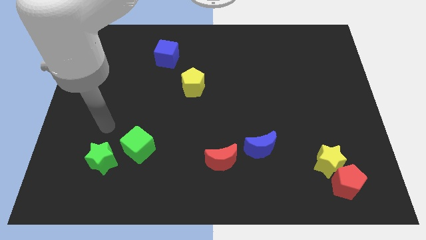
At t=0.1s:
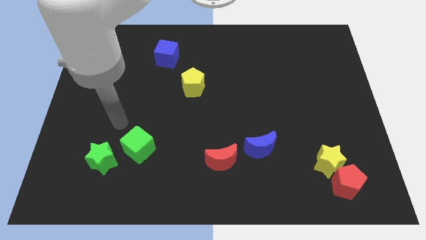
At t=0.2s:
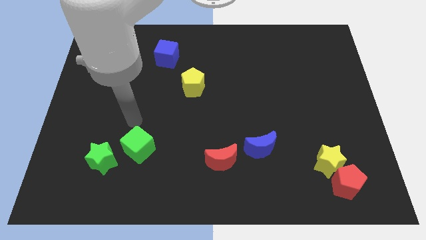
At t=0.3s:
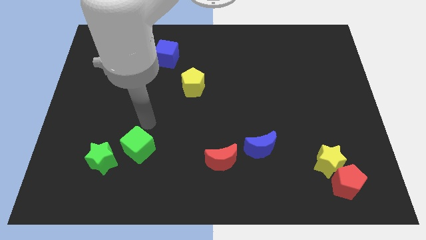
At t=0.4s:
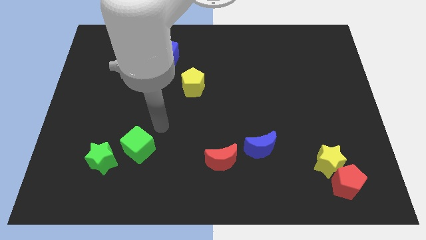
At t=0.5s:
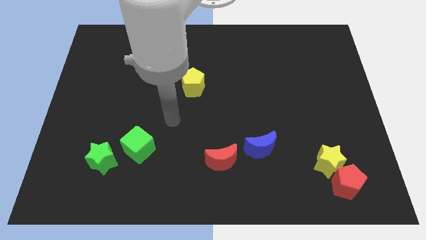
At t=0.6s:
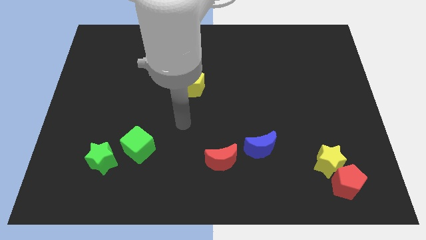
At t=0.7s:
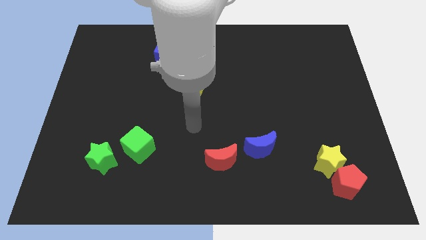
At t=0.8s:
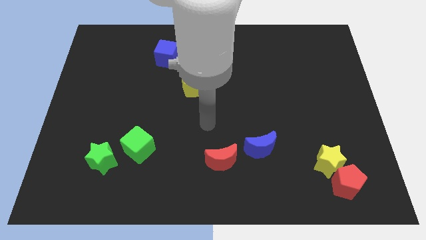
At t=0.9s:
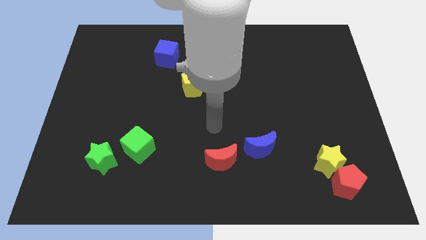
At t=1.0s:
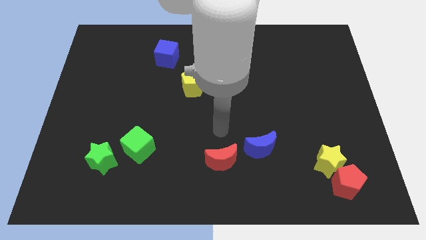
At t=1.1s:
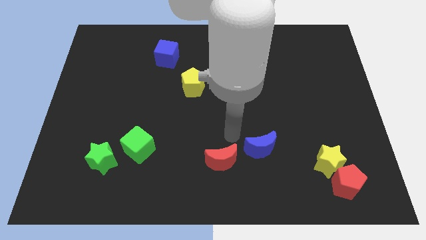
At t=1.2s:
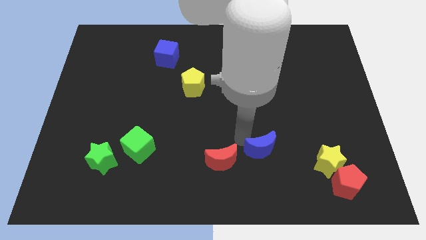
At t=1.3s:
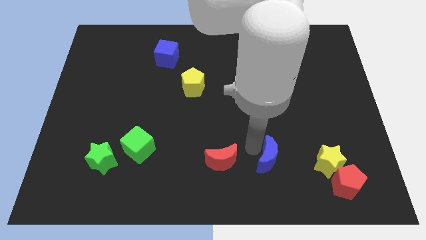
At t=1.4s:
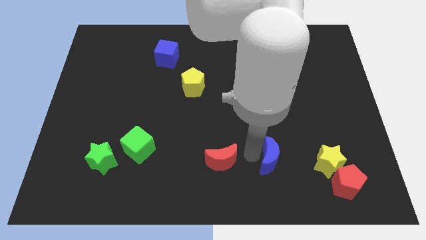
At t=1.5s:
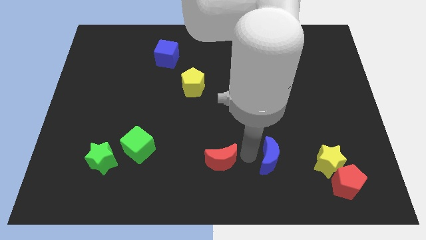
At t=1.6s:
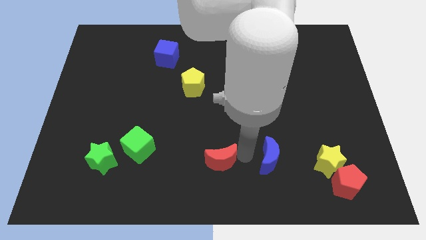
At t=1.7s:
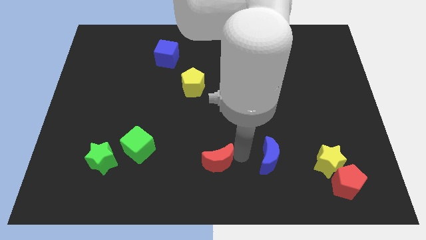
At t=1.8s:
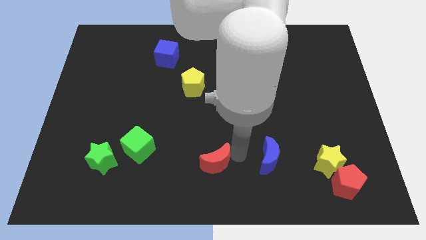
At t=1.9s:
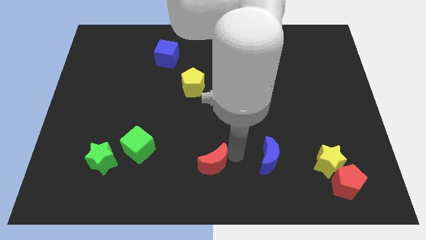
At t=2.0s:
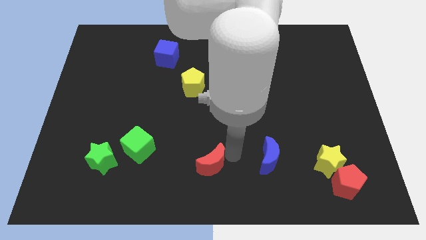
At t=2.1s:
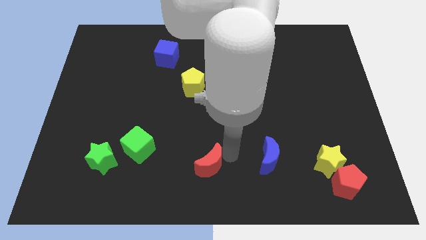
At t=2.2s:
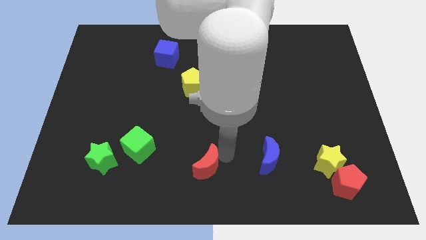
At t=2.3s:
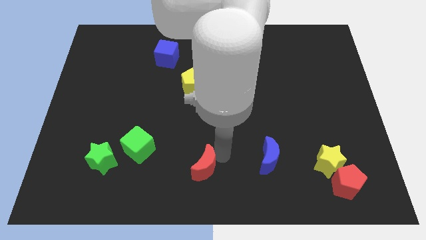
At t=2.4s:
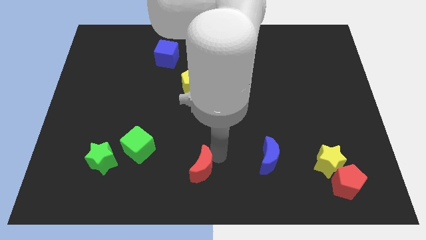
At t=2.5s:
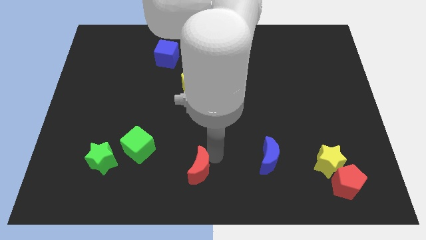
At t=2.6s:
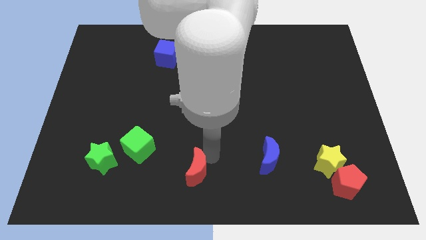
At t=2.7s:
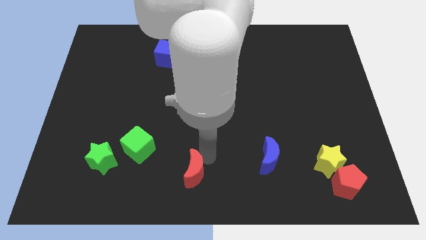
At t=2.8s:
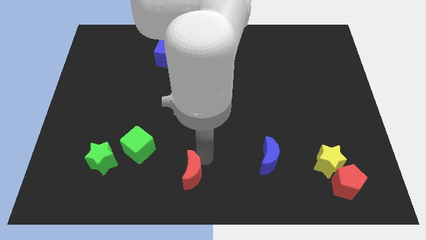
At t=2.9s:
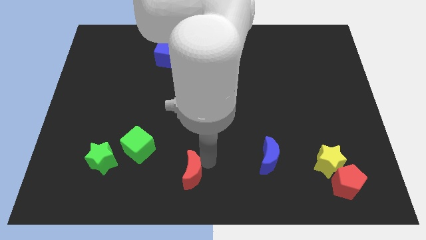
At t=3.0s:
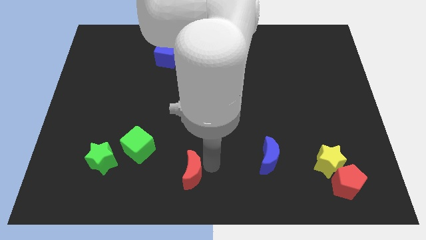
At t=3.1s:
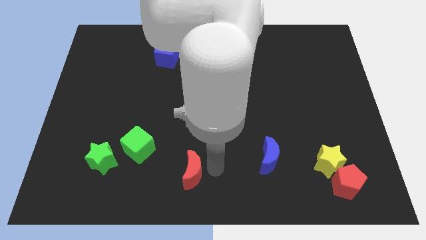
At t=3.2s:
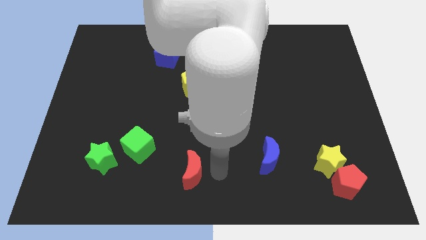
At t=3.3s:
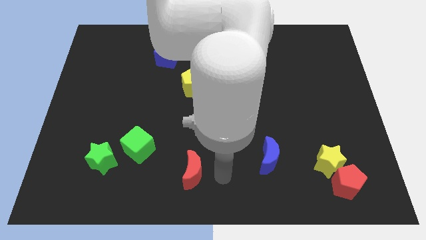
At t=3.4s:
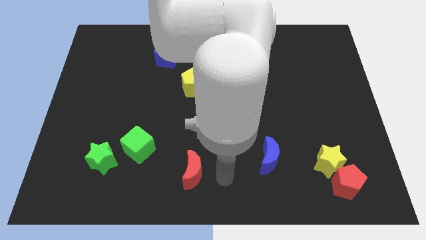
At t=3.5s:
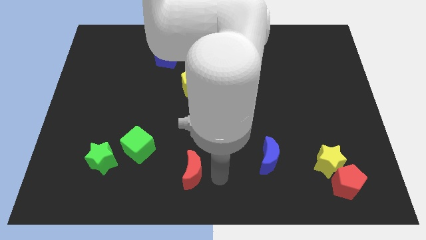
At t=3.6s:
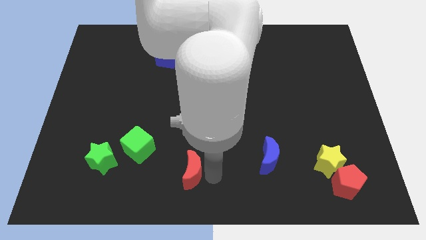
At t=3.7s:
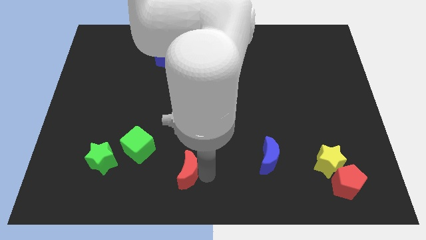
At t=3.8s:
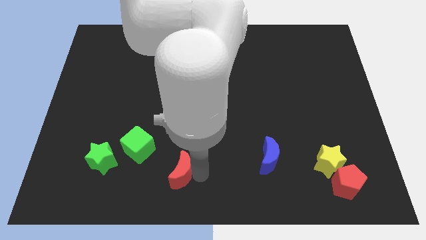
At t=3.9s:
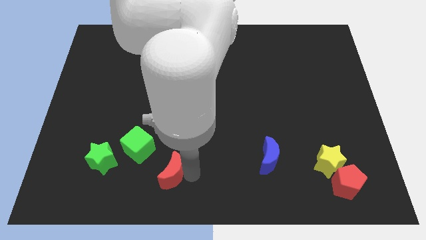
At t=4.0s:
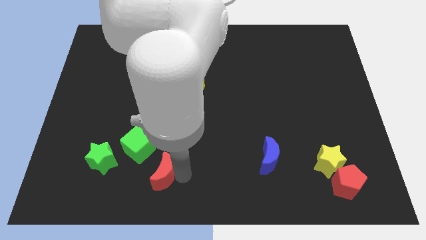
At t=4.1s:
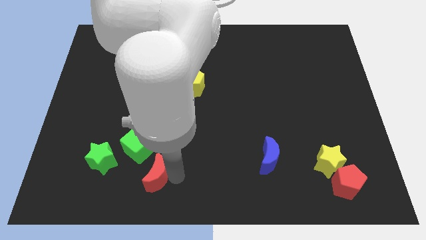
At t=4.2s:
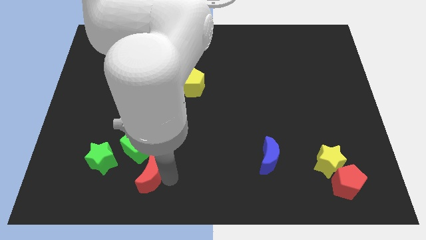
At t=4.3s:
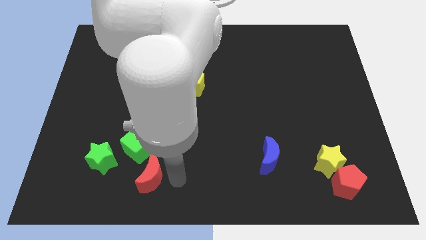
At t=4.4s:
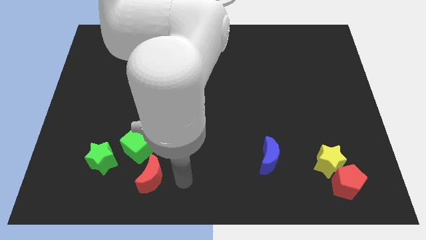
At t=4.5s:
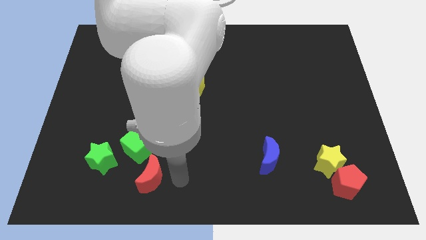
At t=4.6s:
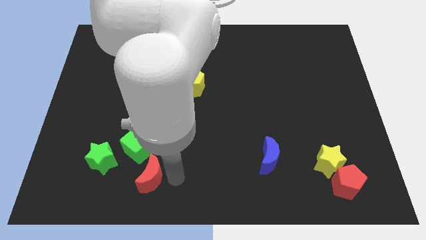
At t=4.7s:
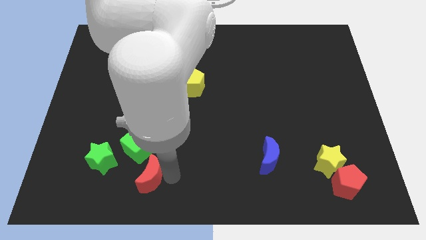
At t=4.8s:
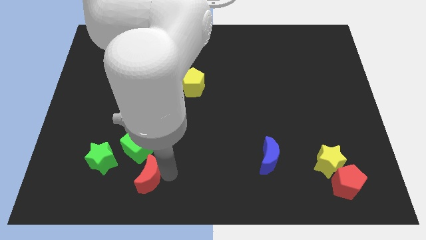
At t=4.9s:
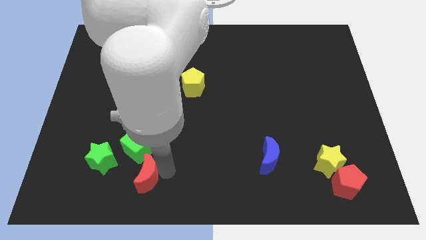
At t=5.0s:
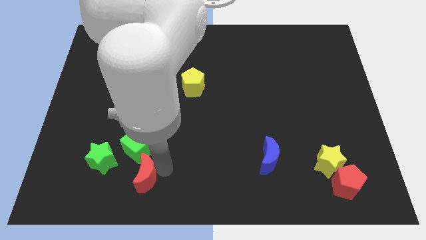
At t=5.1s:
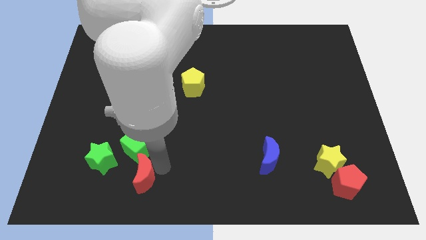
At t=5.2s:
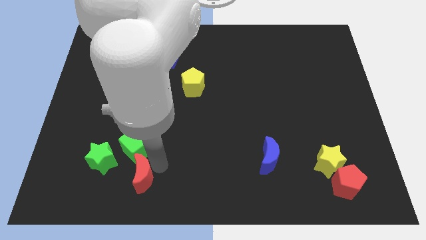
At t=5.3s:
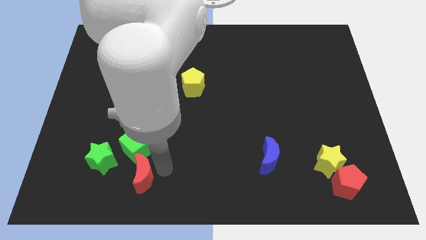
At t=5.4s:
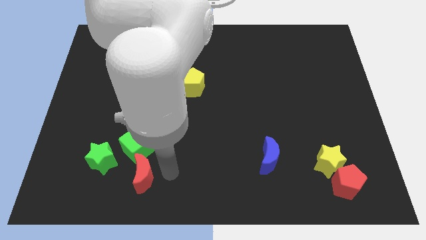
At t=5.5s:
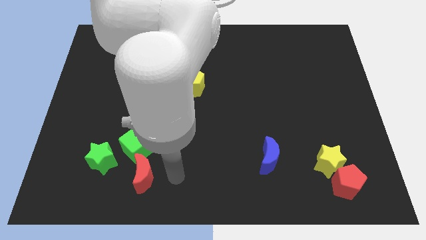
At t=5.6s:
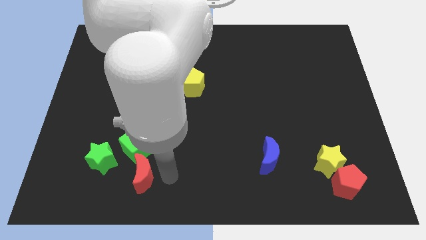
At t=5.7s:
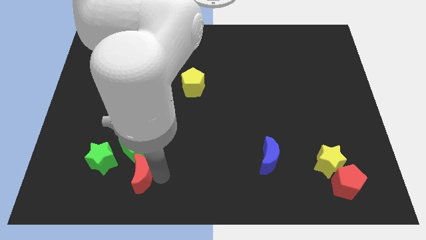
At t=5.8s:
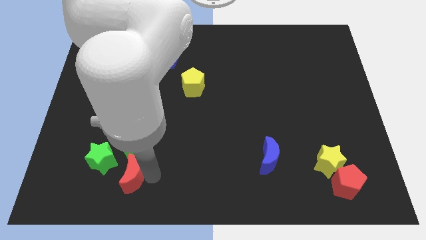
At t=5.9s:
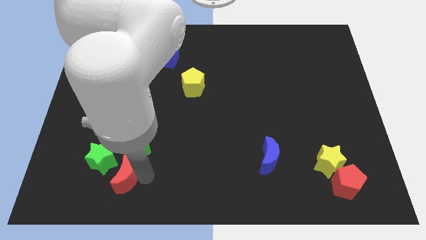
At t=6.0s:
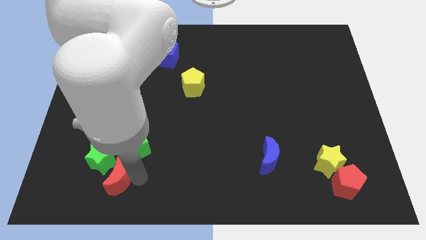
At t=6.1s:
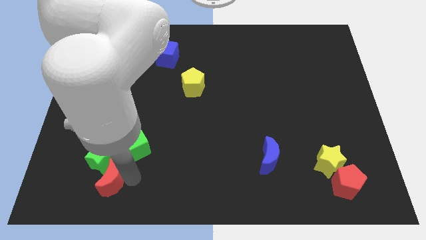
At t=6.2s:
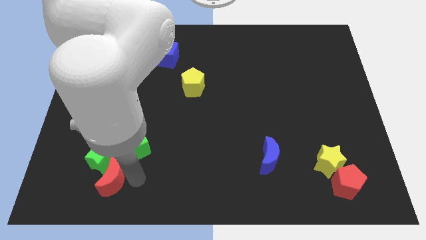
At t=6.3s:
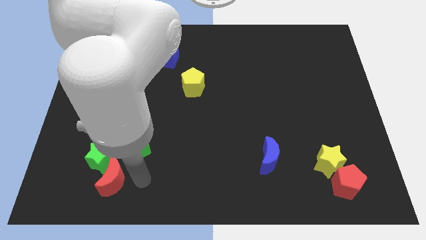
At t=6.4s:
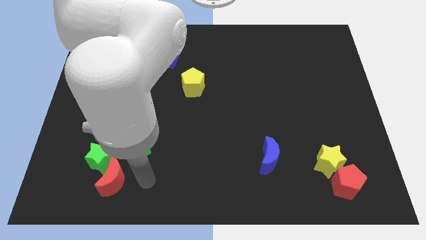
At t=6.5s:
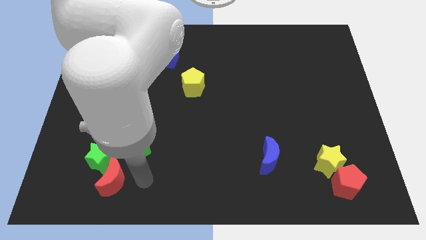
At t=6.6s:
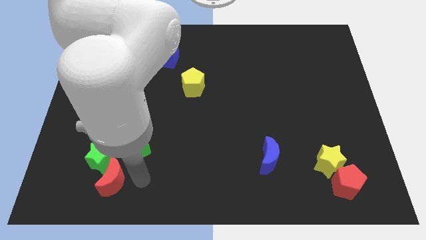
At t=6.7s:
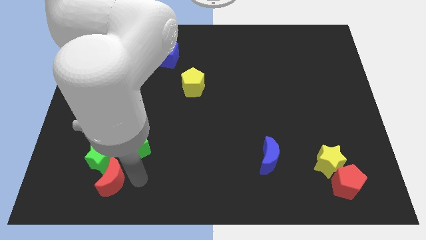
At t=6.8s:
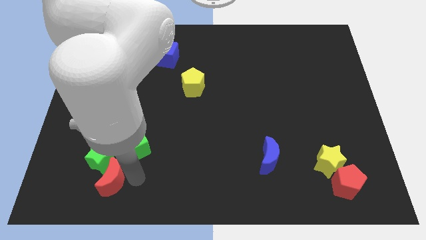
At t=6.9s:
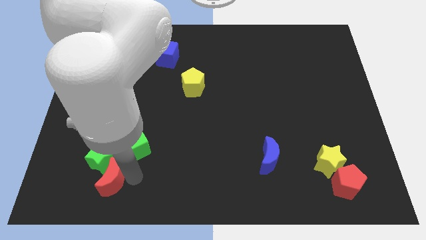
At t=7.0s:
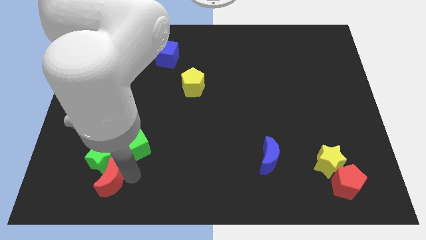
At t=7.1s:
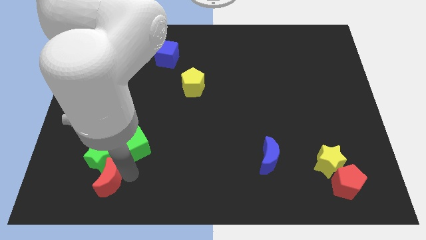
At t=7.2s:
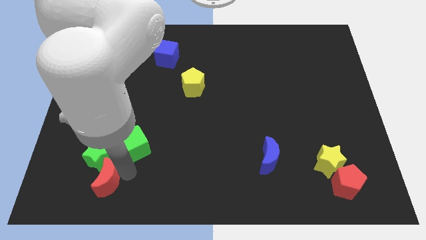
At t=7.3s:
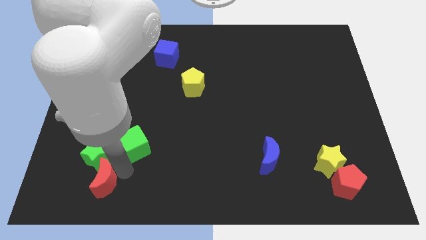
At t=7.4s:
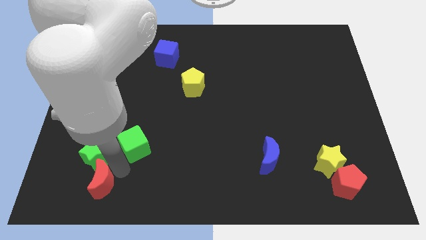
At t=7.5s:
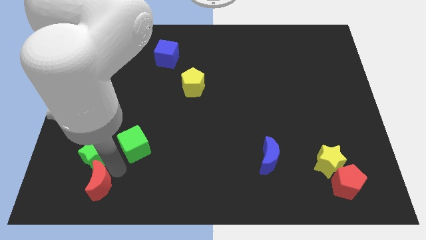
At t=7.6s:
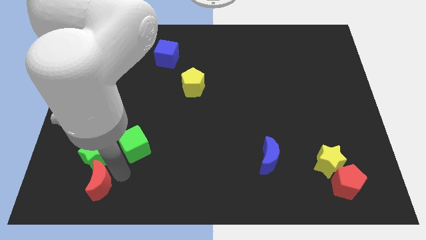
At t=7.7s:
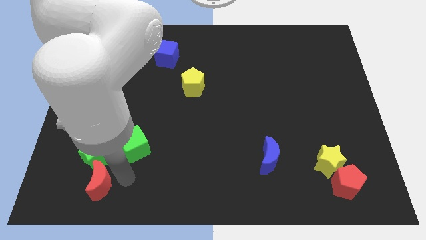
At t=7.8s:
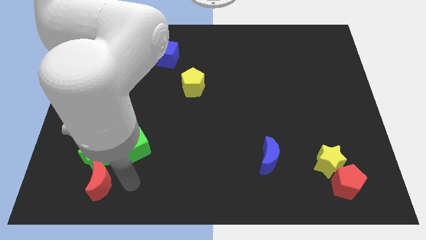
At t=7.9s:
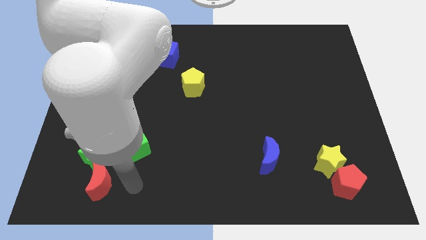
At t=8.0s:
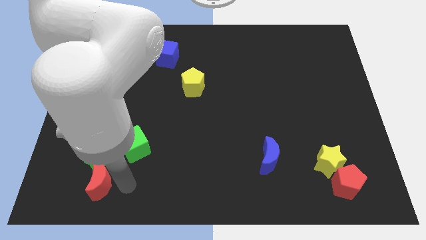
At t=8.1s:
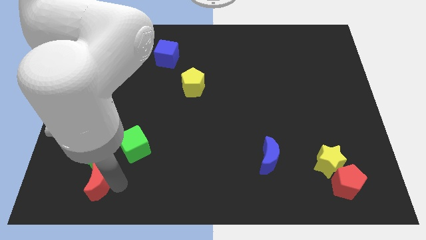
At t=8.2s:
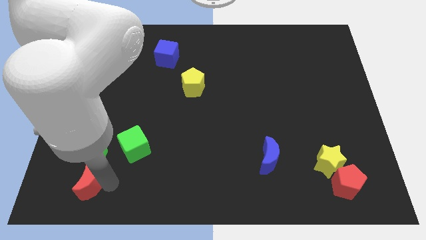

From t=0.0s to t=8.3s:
slide the red moon diagonally down and to the left of the green star
